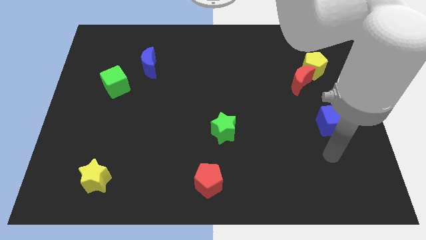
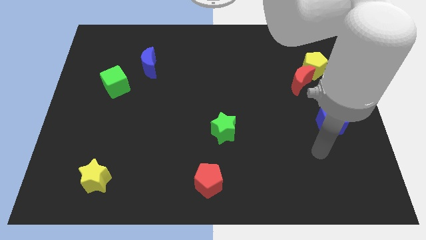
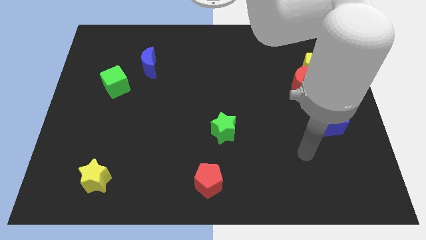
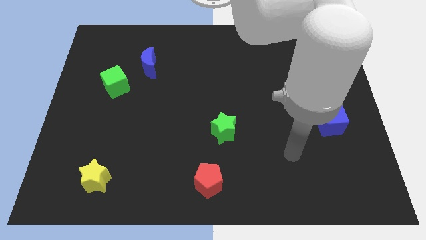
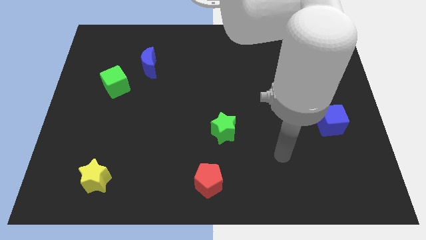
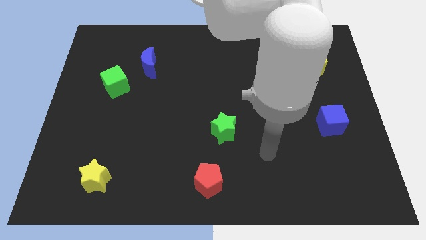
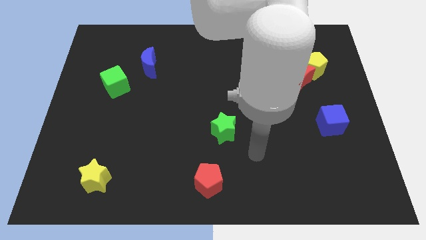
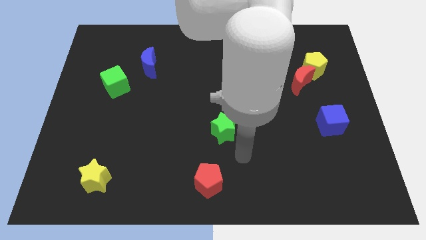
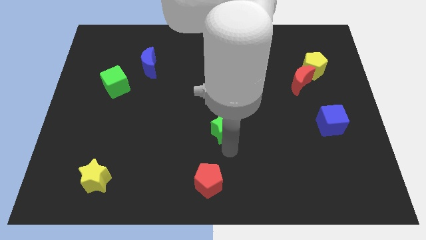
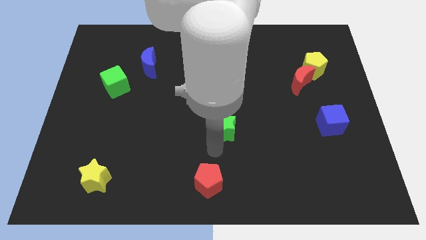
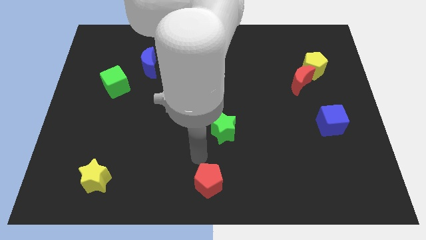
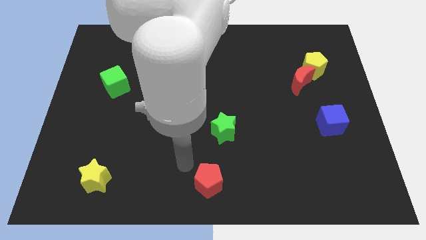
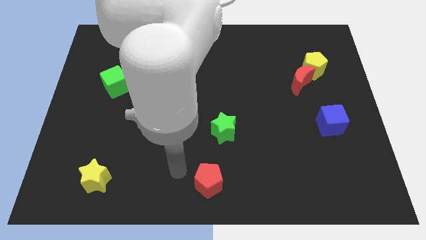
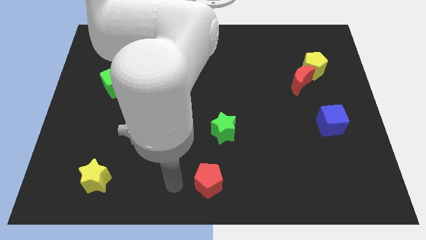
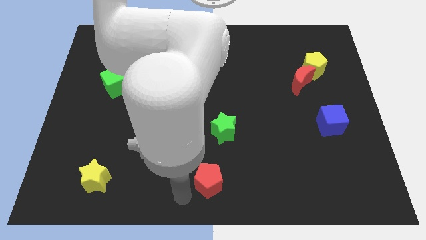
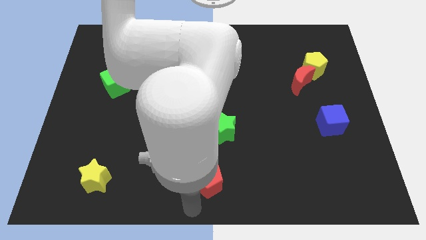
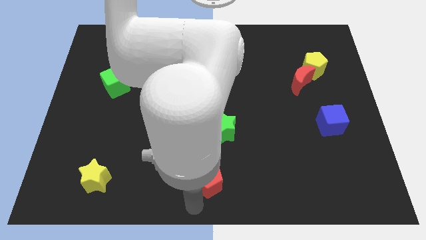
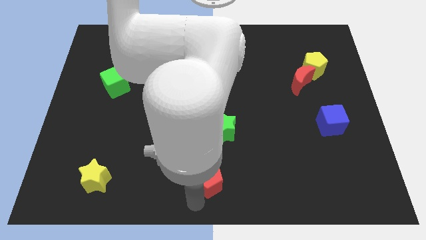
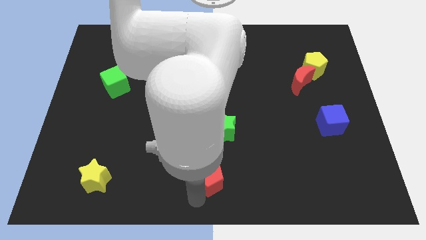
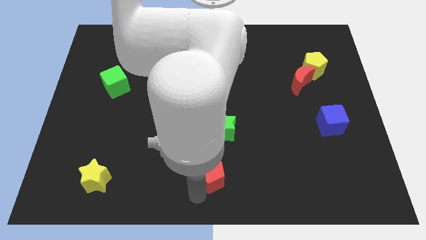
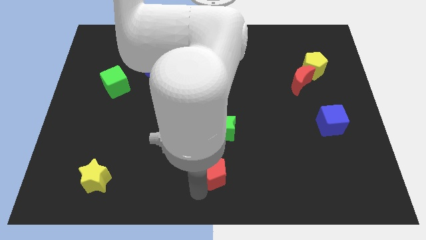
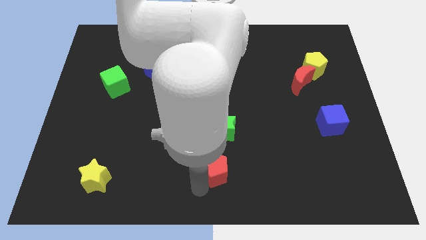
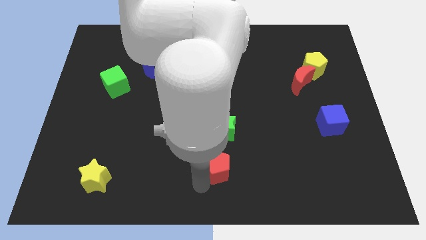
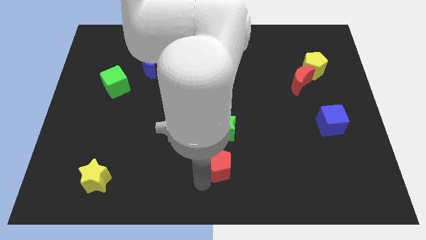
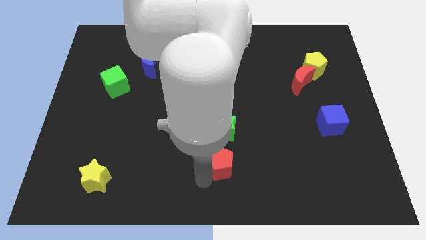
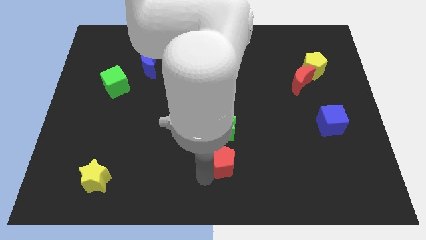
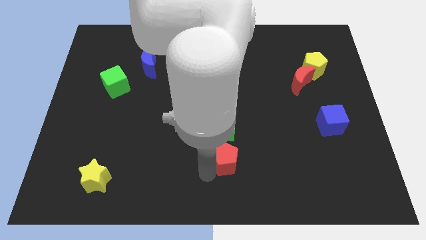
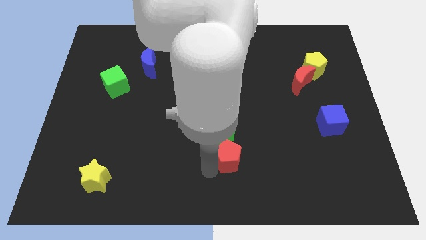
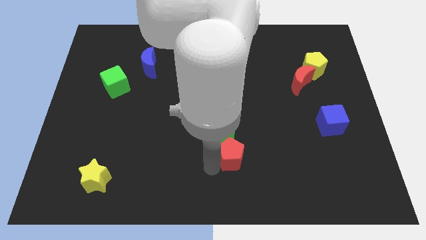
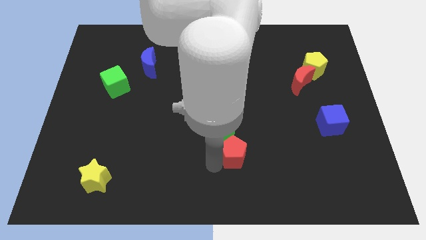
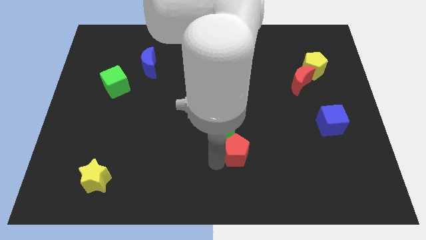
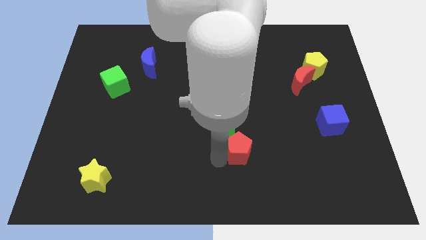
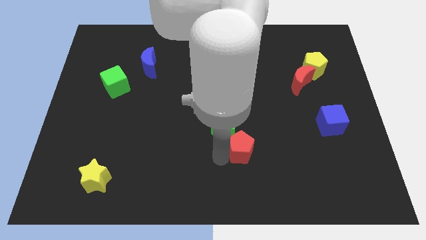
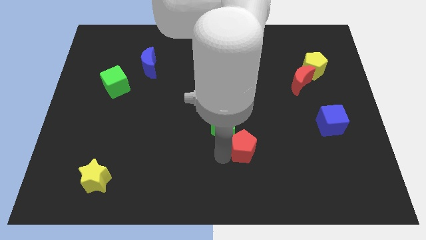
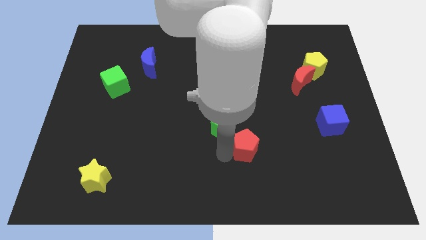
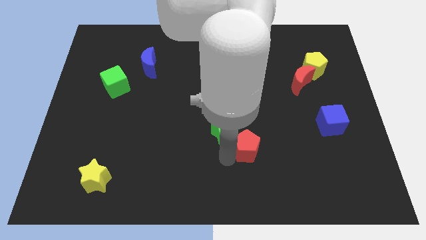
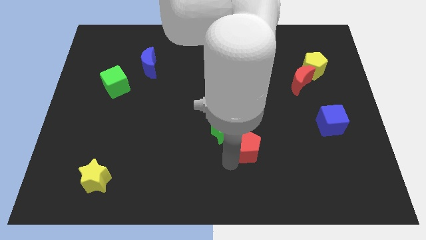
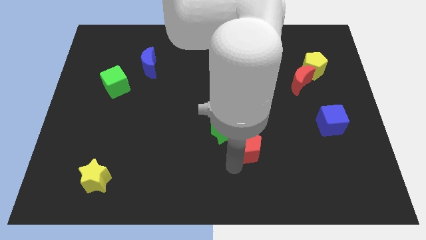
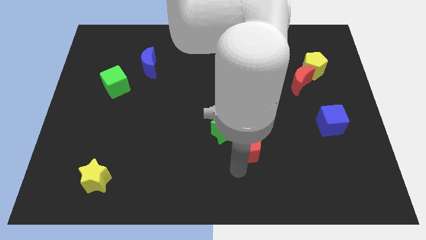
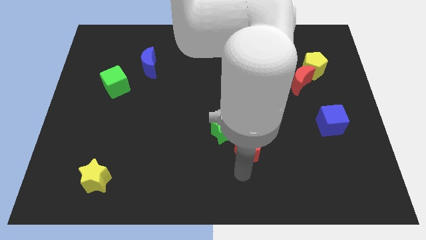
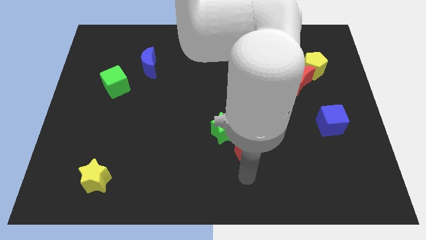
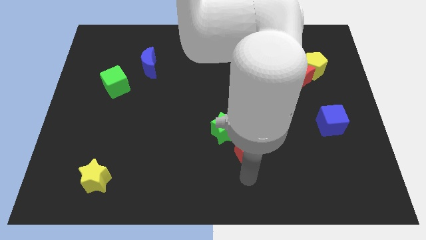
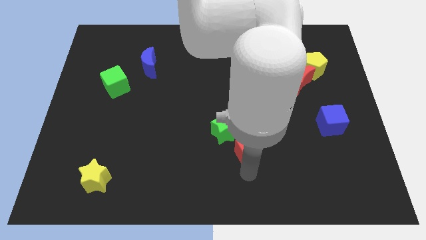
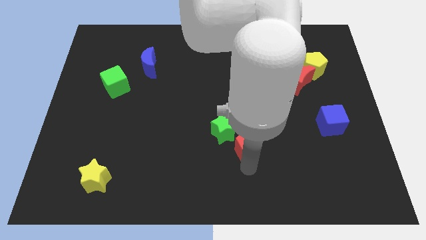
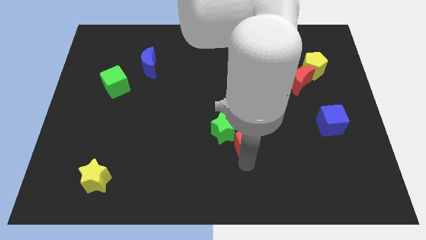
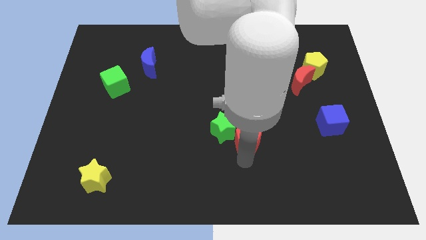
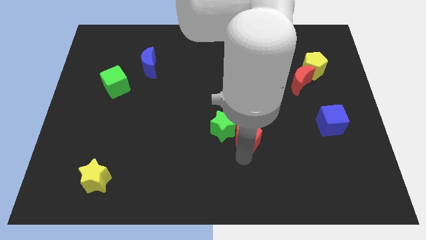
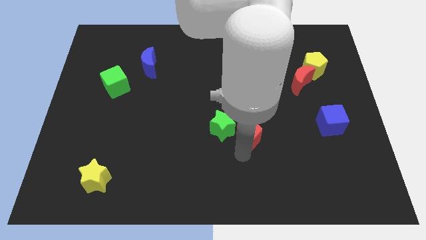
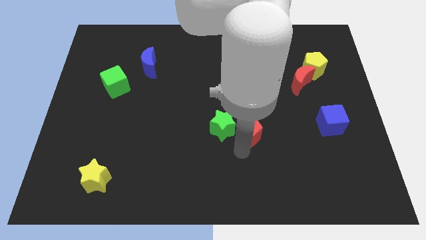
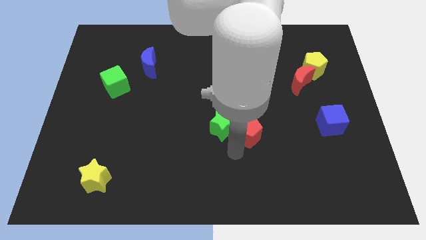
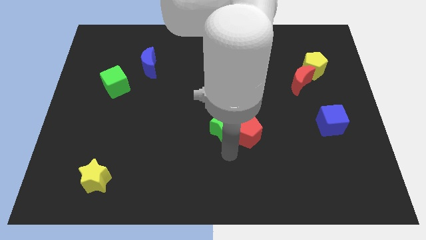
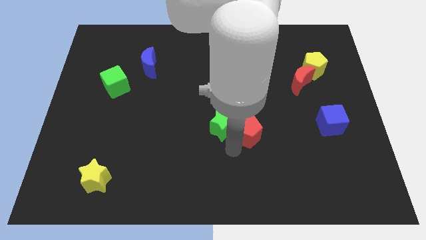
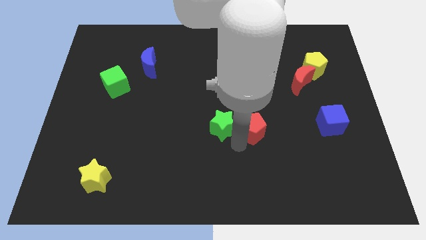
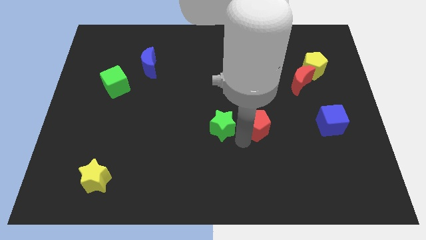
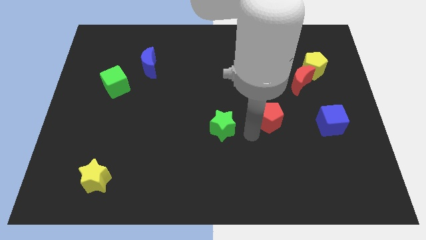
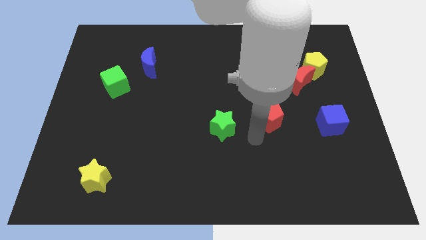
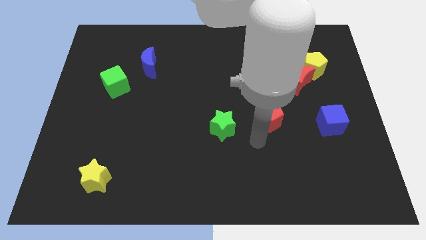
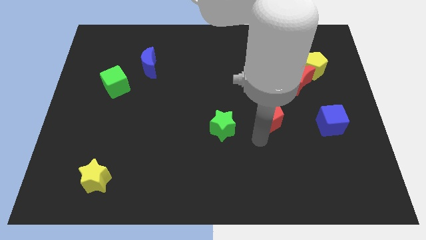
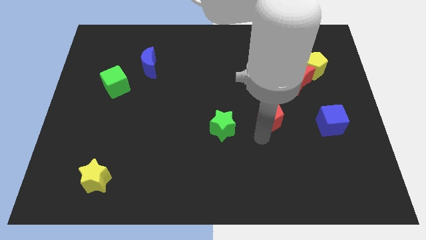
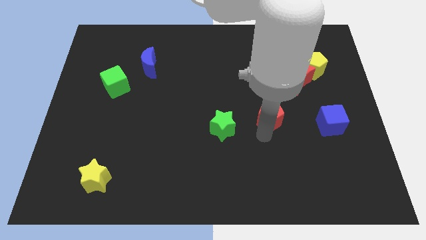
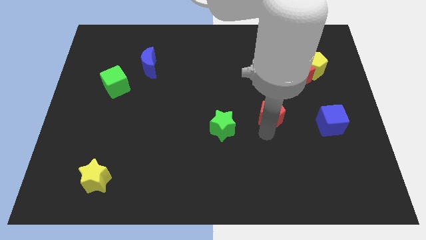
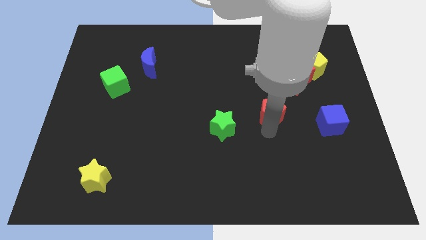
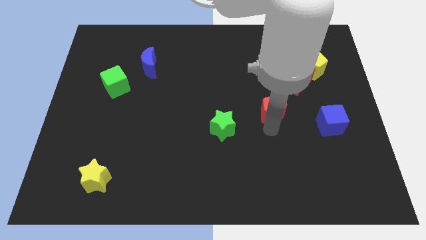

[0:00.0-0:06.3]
push the red pentagon to the bottom left of the red moon

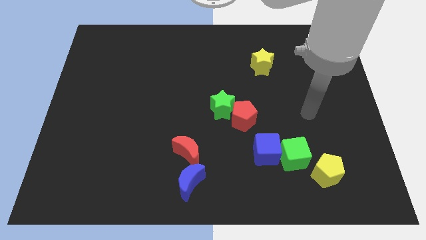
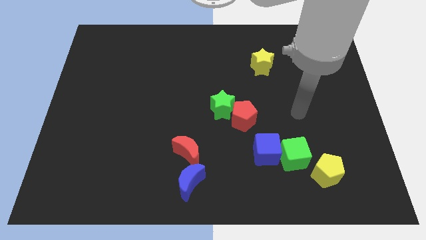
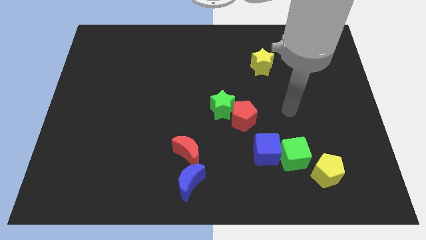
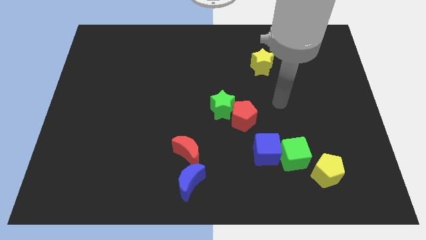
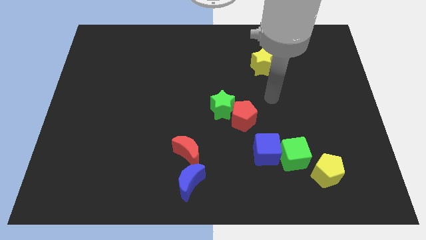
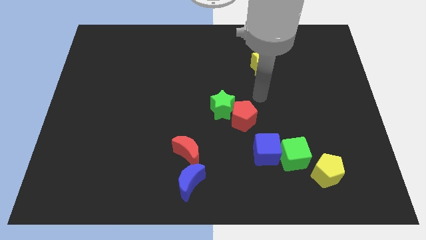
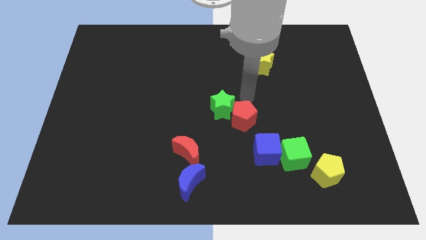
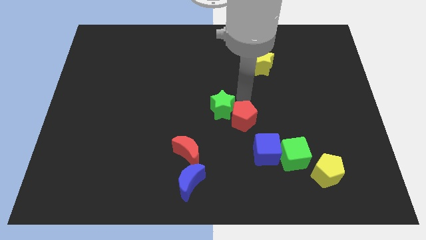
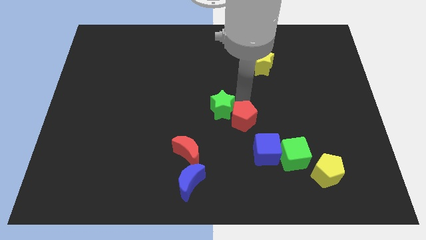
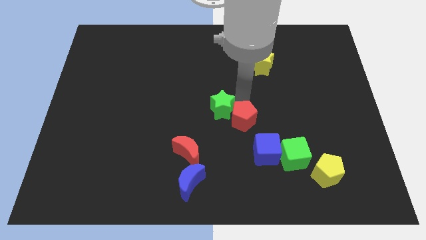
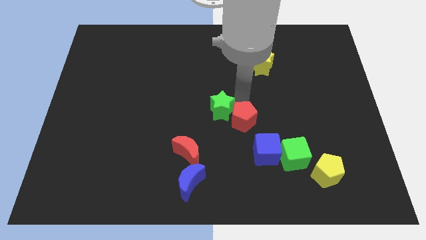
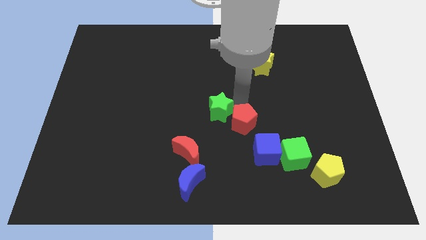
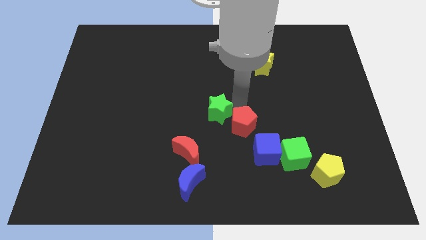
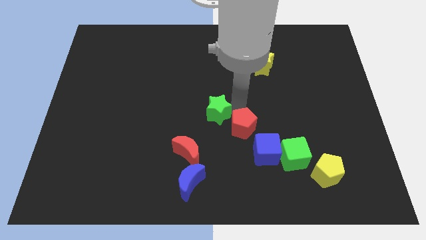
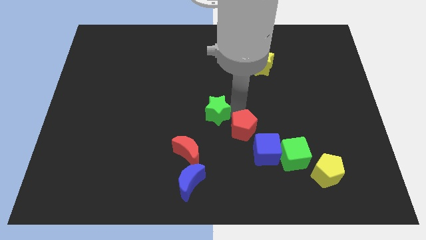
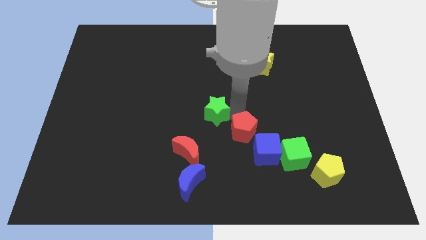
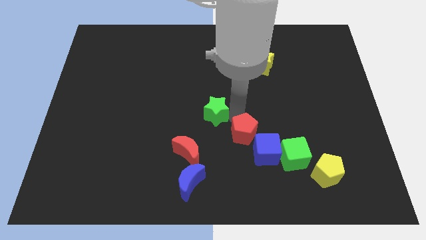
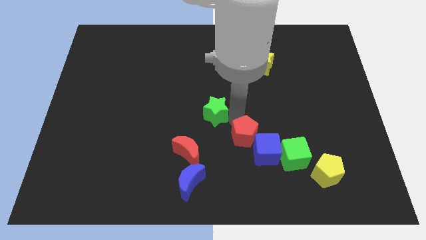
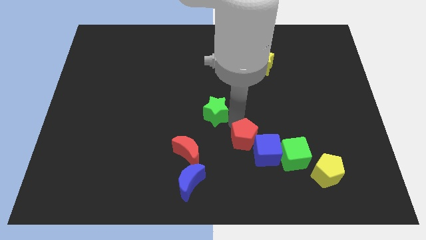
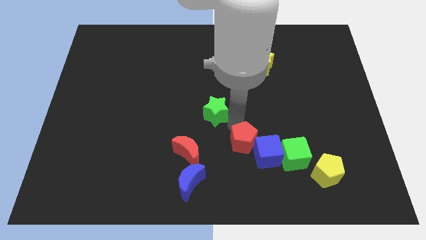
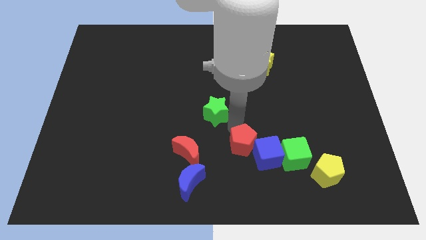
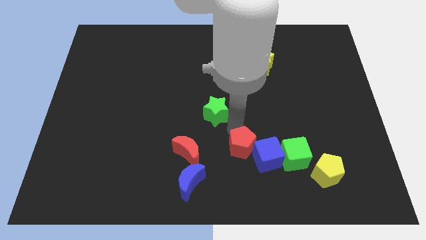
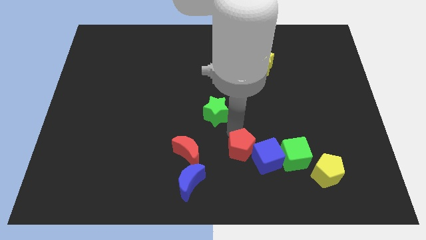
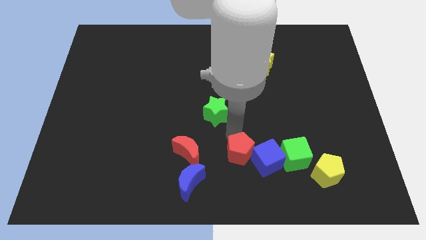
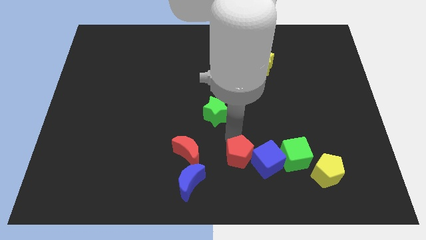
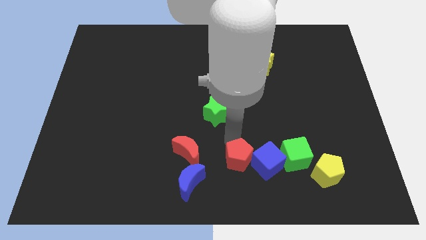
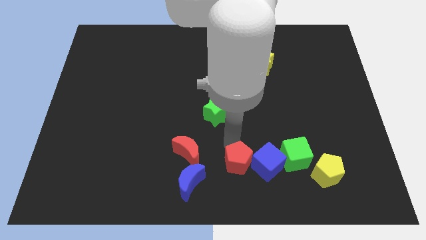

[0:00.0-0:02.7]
move the red pentagon right of the blue moon
